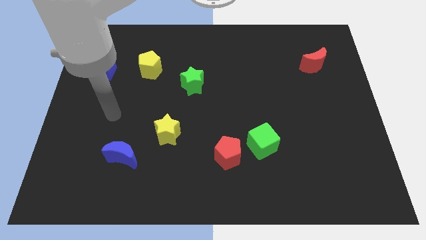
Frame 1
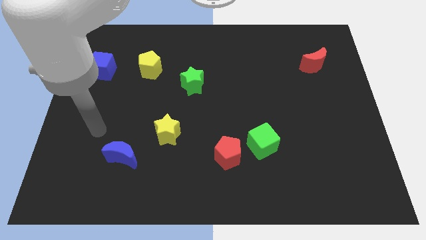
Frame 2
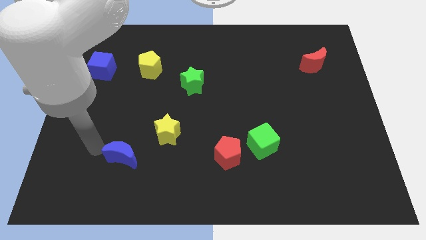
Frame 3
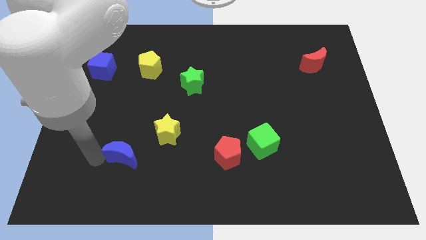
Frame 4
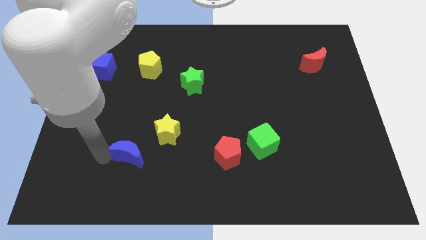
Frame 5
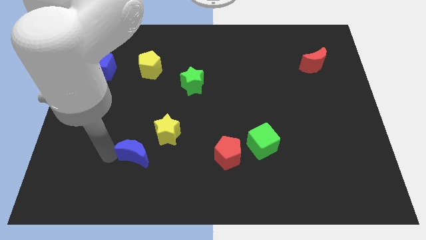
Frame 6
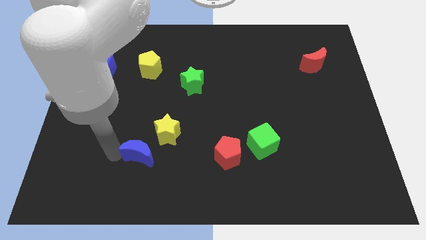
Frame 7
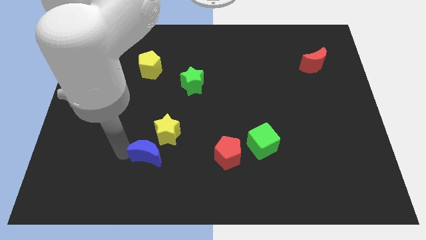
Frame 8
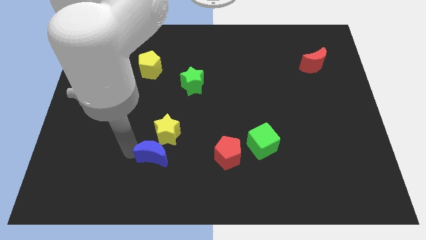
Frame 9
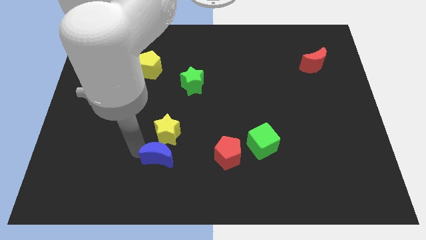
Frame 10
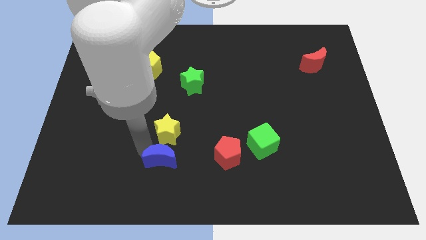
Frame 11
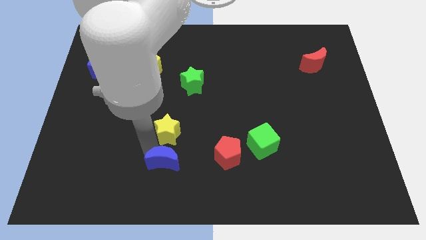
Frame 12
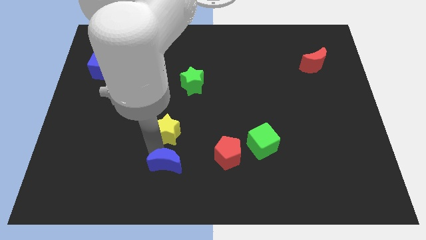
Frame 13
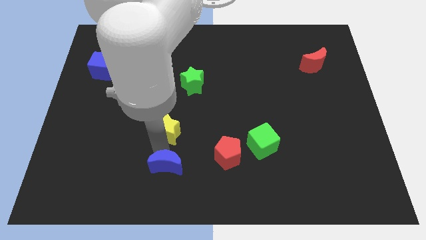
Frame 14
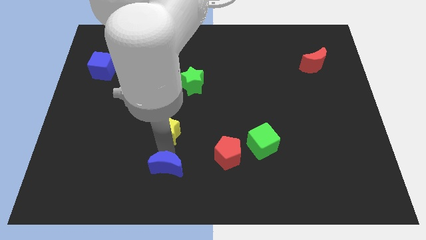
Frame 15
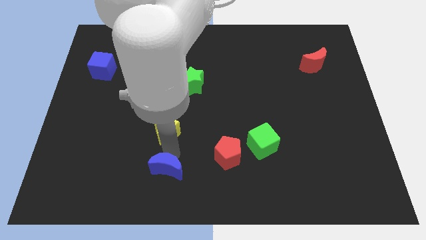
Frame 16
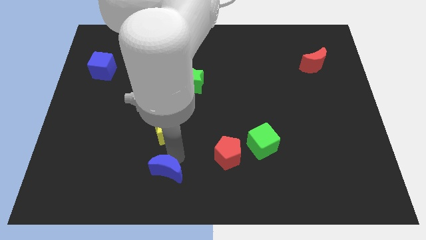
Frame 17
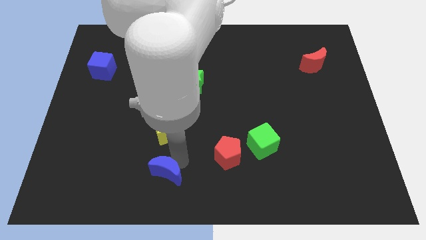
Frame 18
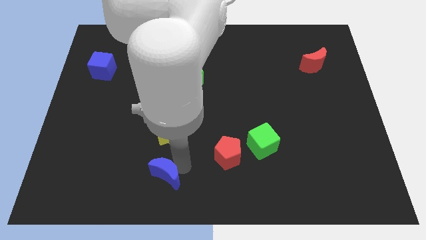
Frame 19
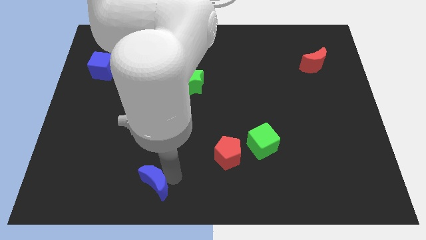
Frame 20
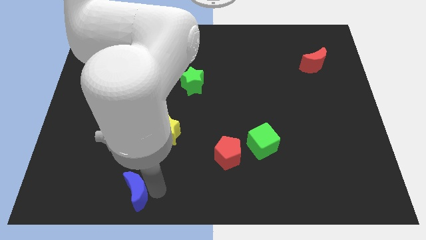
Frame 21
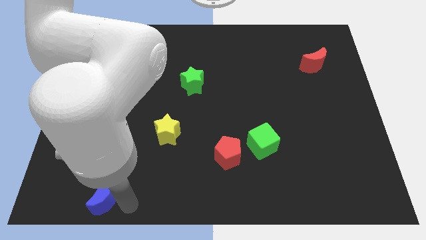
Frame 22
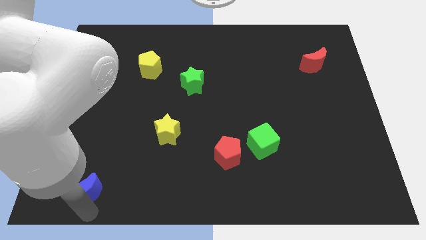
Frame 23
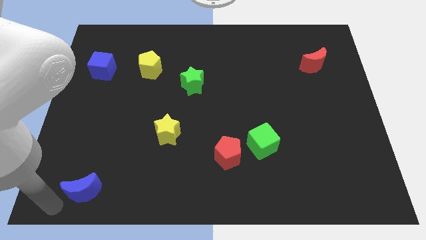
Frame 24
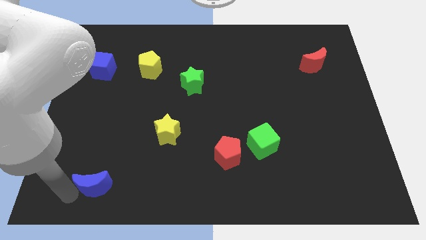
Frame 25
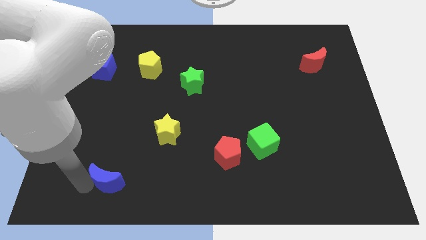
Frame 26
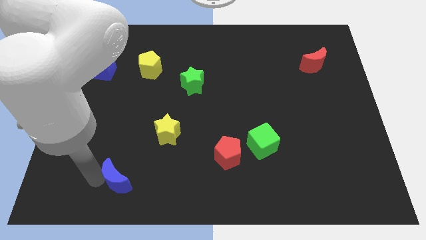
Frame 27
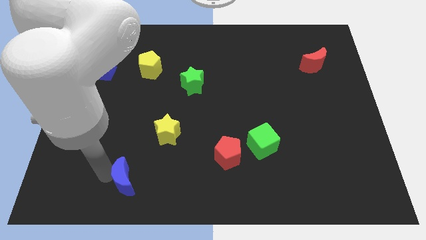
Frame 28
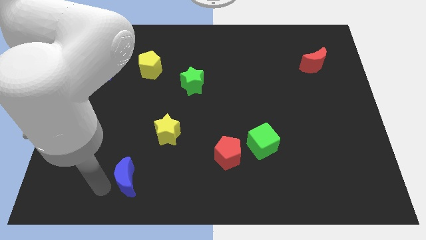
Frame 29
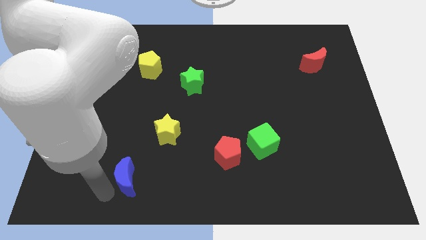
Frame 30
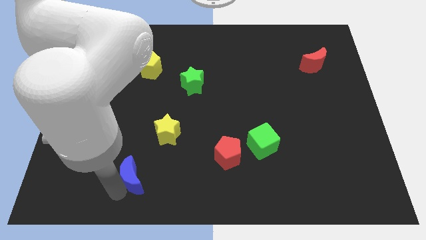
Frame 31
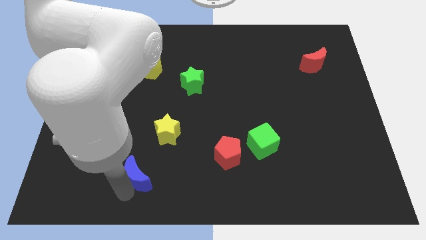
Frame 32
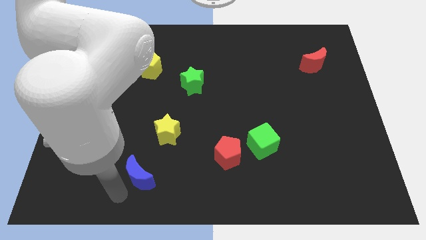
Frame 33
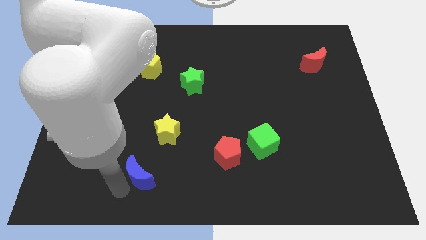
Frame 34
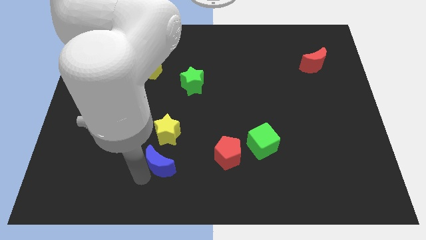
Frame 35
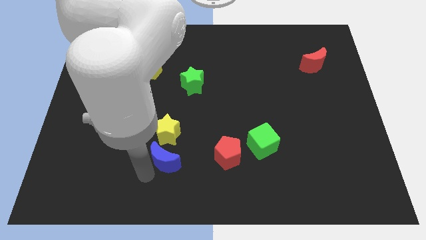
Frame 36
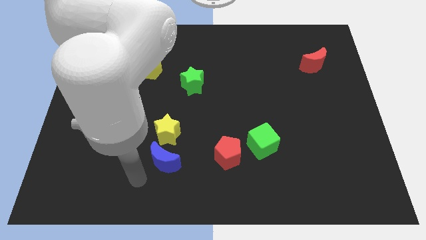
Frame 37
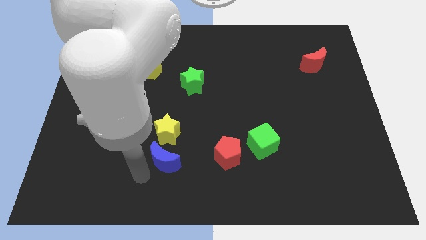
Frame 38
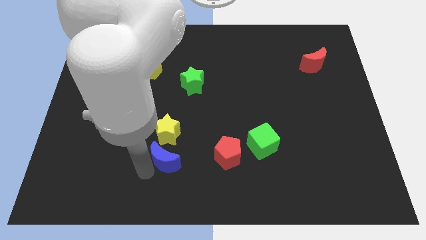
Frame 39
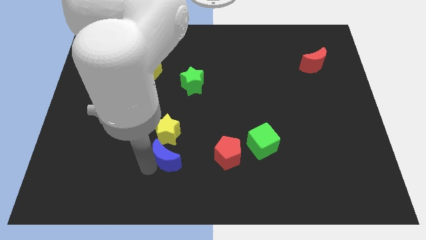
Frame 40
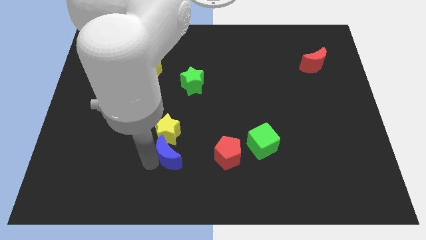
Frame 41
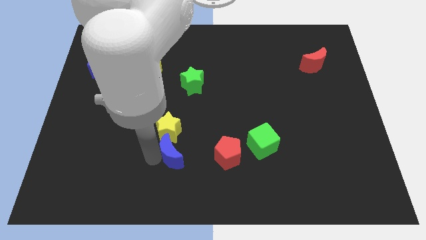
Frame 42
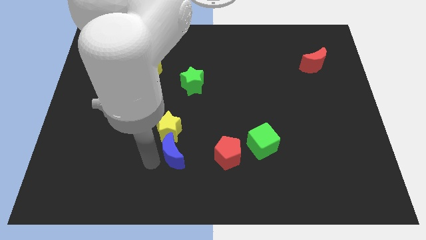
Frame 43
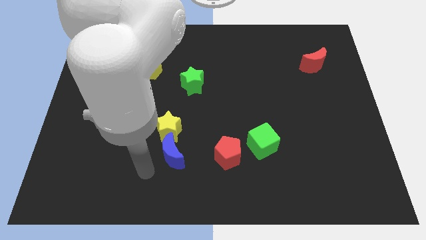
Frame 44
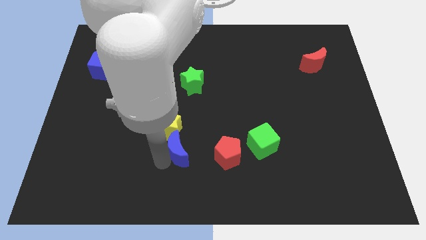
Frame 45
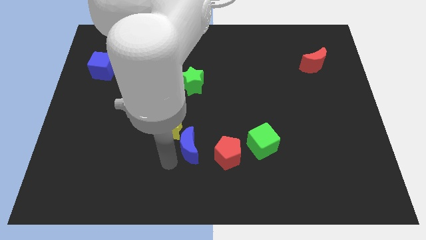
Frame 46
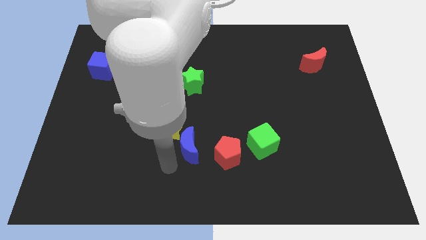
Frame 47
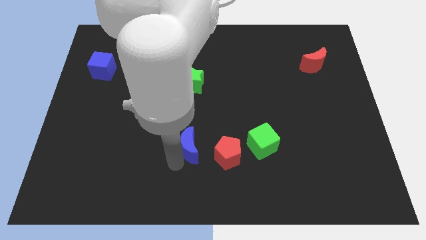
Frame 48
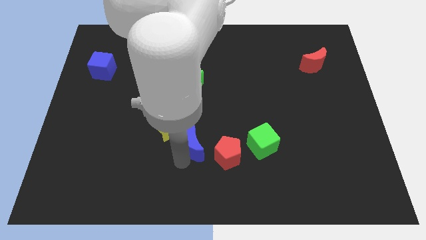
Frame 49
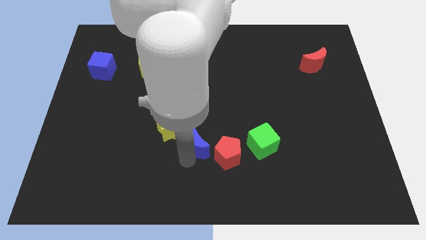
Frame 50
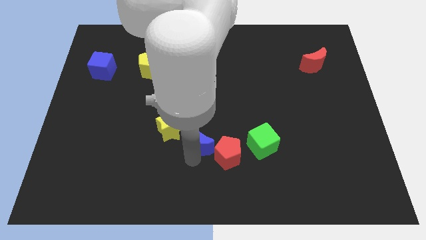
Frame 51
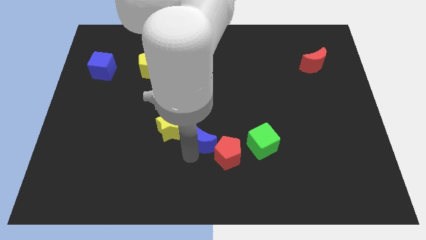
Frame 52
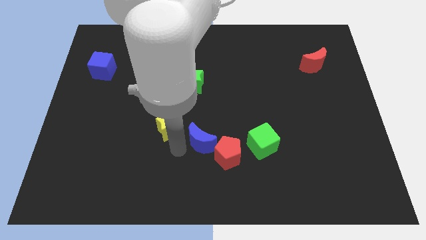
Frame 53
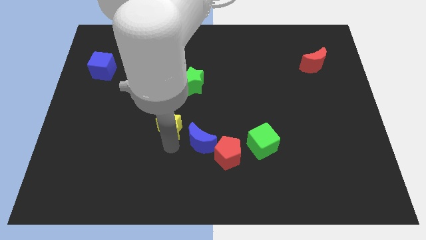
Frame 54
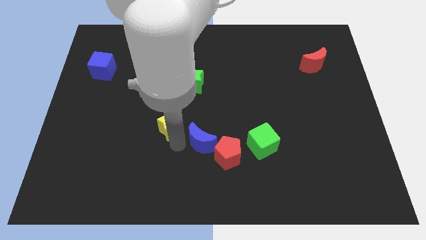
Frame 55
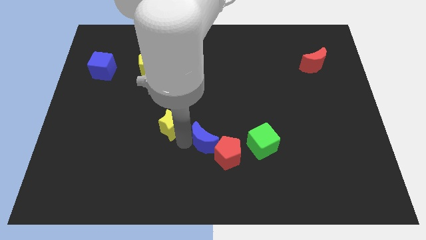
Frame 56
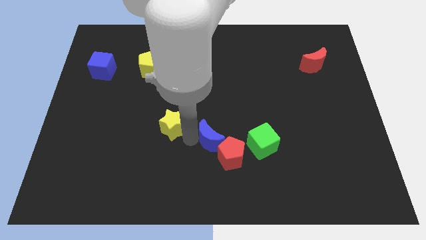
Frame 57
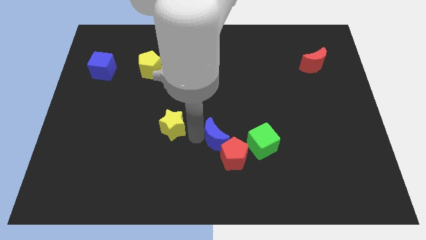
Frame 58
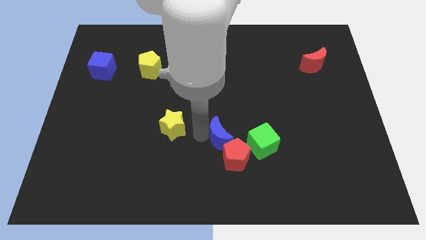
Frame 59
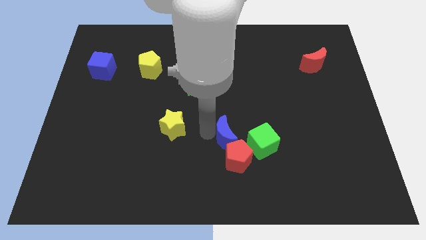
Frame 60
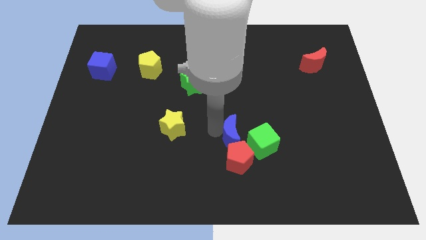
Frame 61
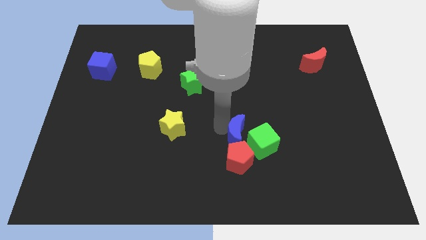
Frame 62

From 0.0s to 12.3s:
put the blue moon towards the green cube

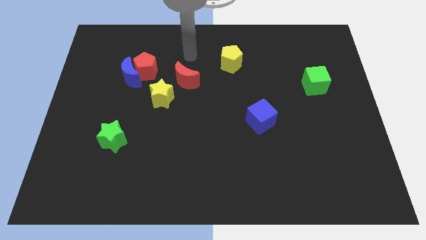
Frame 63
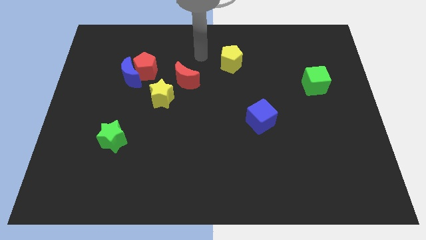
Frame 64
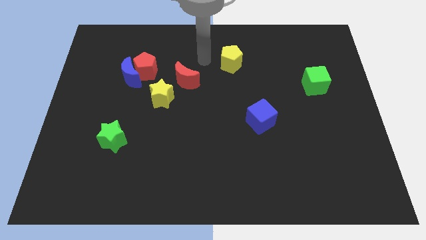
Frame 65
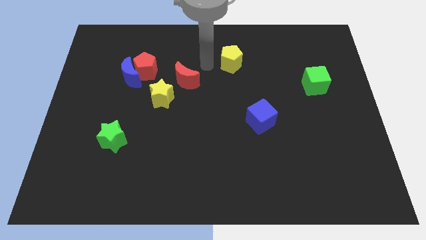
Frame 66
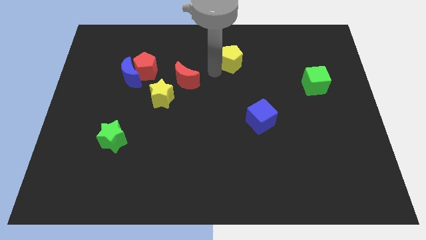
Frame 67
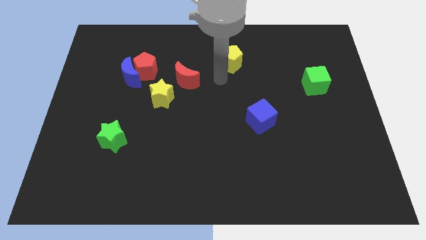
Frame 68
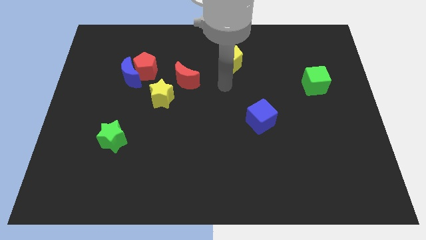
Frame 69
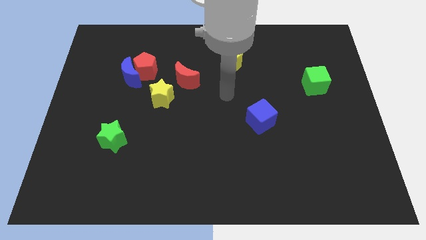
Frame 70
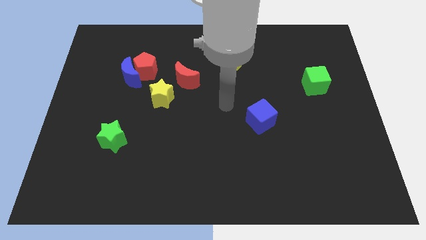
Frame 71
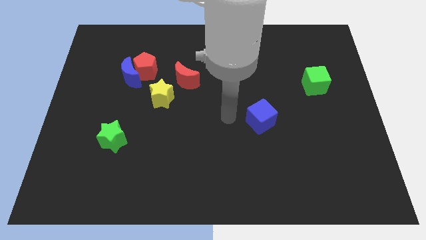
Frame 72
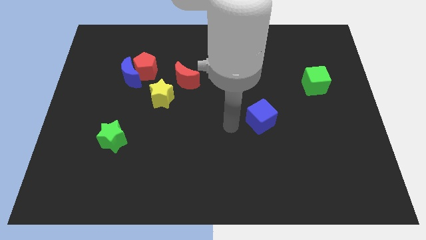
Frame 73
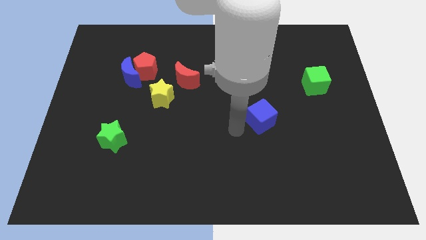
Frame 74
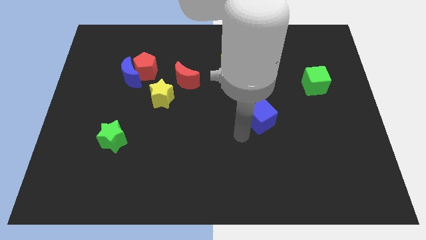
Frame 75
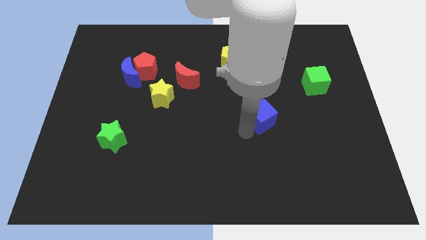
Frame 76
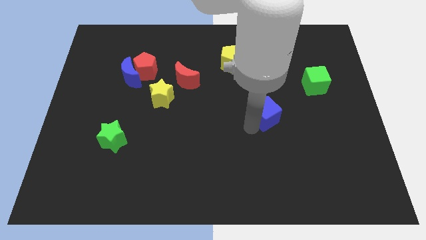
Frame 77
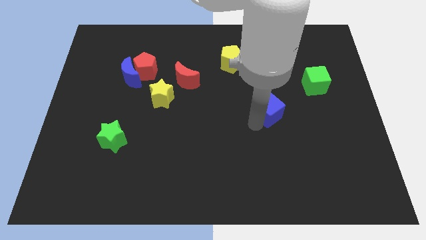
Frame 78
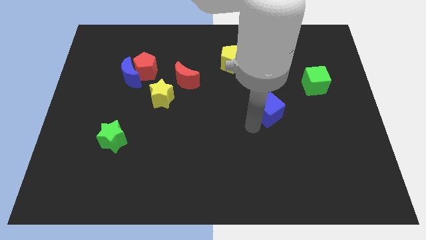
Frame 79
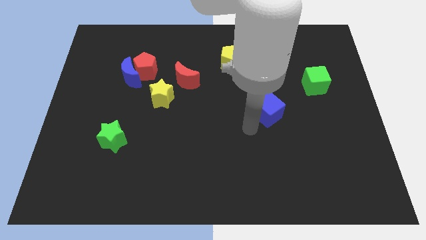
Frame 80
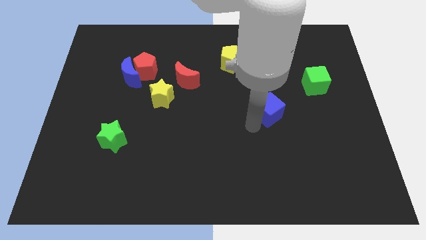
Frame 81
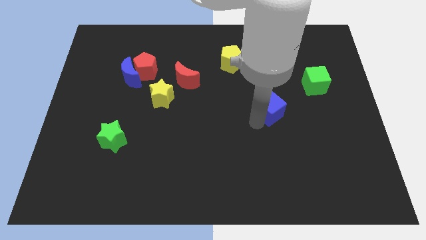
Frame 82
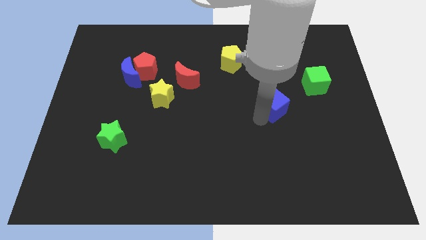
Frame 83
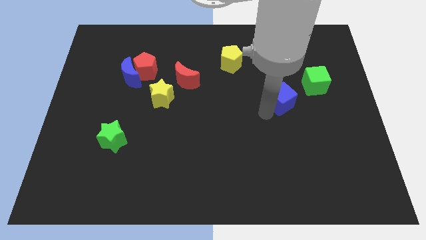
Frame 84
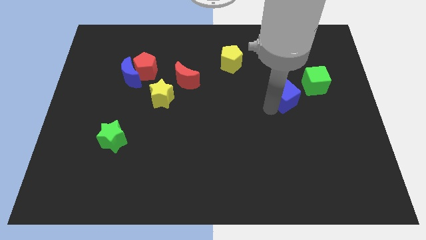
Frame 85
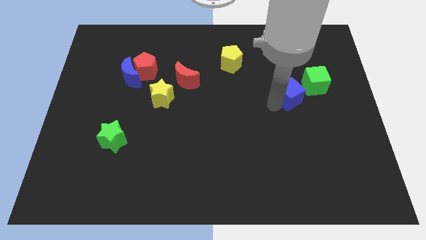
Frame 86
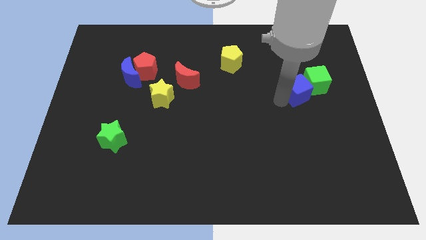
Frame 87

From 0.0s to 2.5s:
move the blue cube close to the green cube
